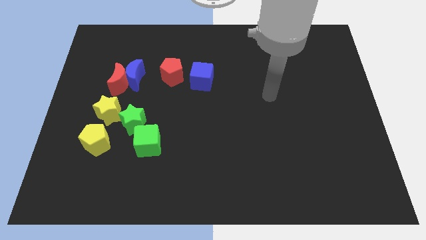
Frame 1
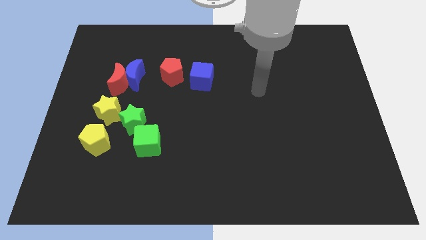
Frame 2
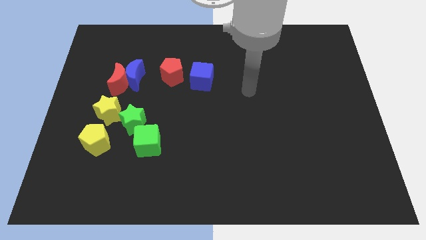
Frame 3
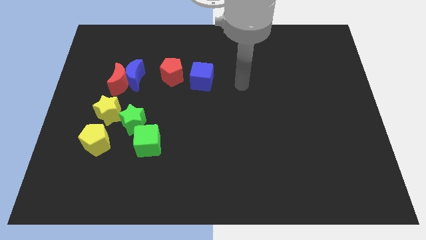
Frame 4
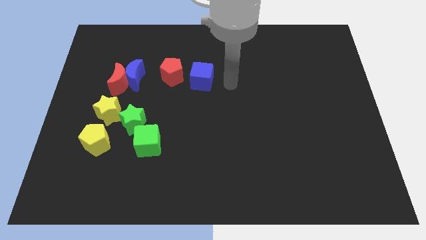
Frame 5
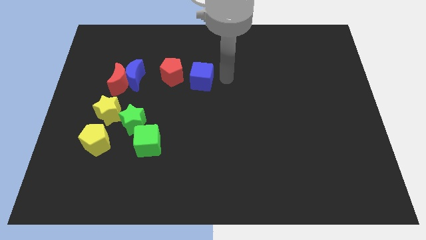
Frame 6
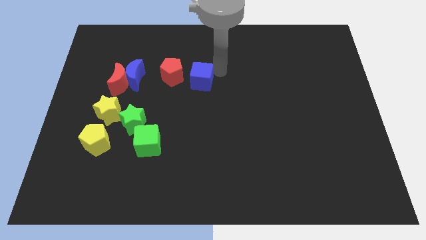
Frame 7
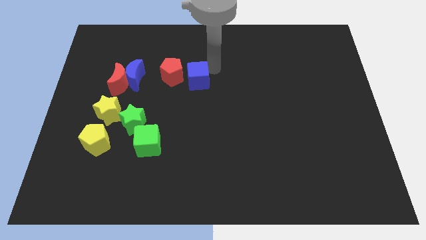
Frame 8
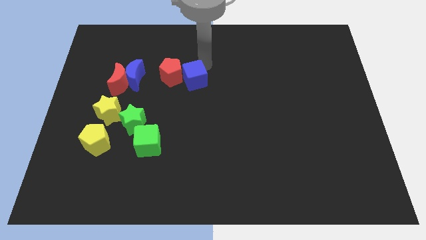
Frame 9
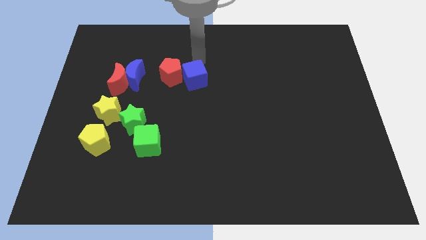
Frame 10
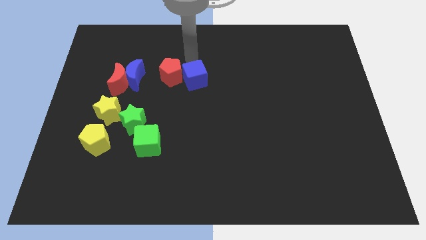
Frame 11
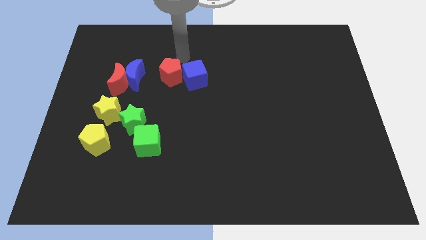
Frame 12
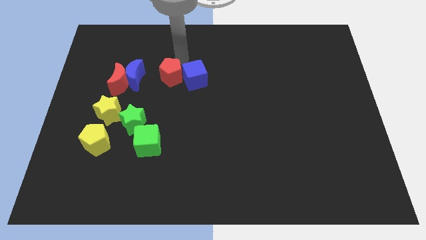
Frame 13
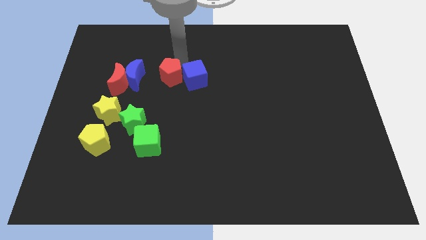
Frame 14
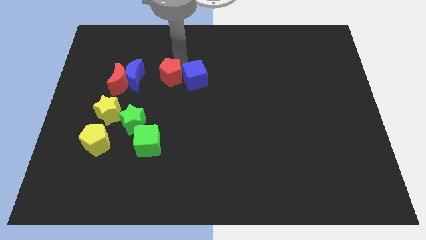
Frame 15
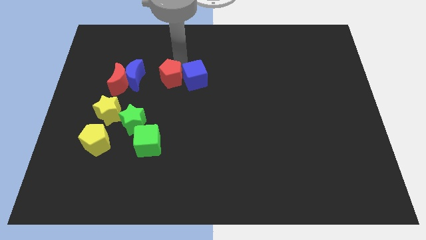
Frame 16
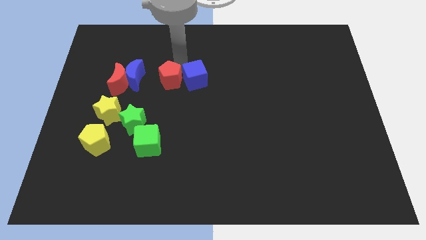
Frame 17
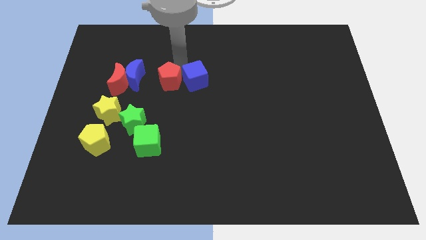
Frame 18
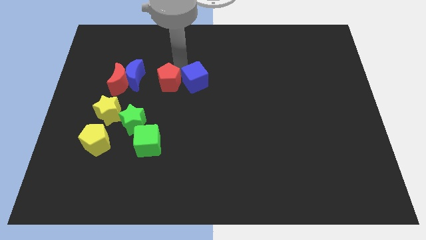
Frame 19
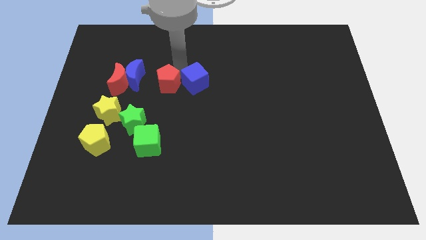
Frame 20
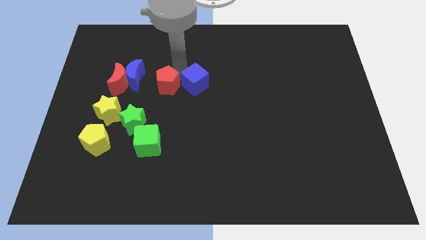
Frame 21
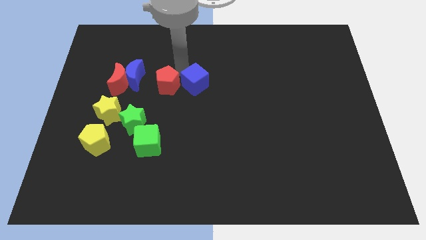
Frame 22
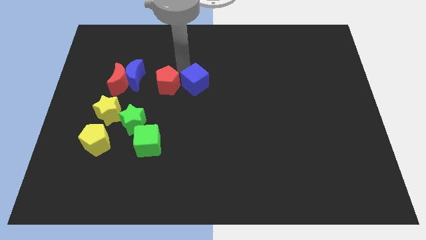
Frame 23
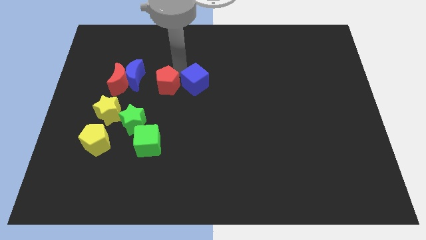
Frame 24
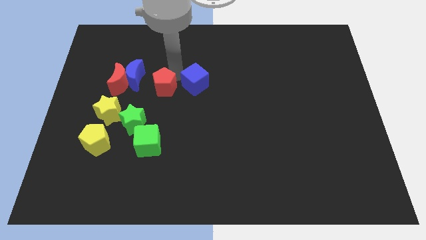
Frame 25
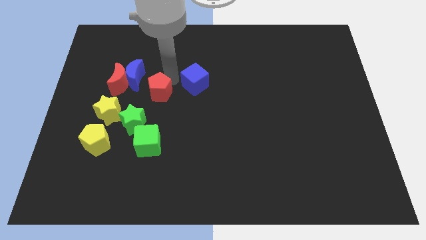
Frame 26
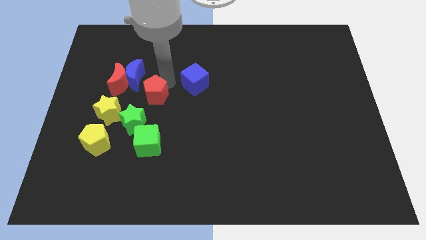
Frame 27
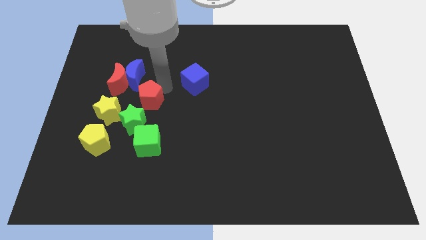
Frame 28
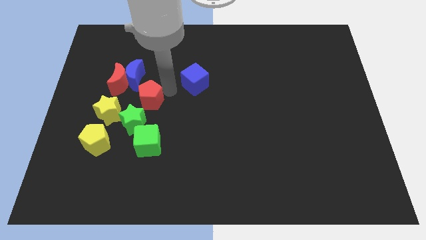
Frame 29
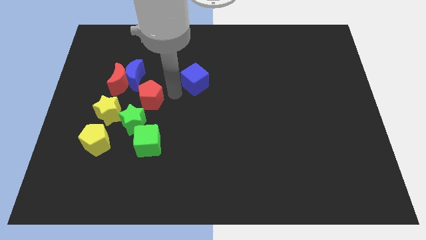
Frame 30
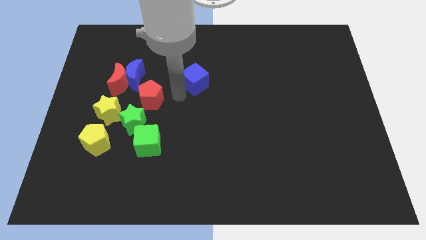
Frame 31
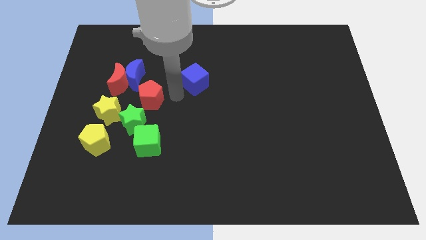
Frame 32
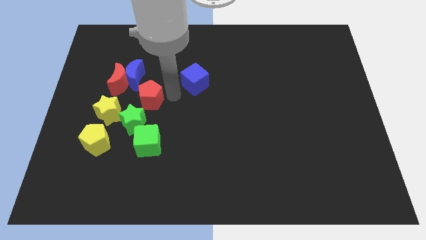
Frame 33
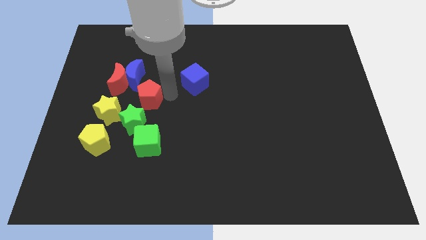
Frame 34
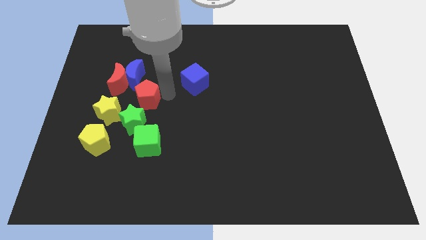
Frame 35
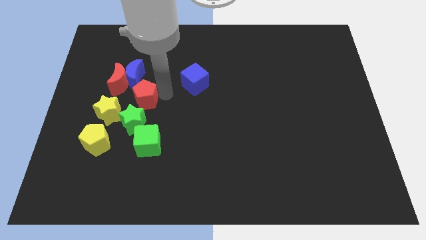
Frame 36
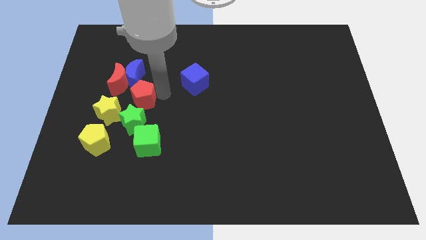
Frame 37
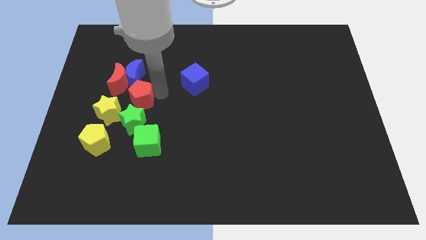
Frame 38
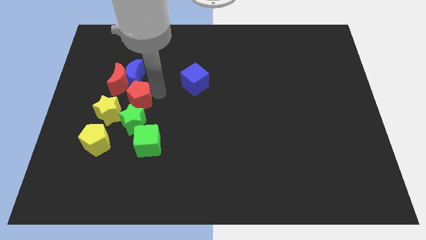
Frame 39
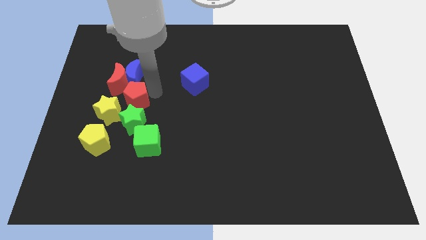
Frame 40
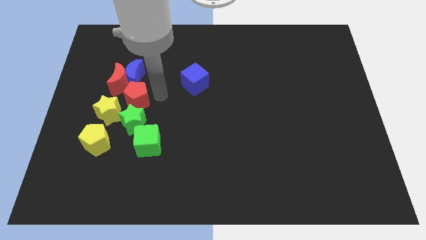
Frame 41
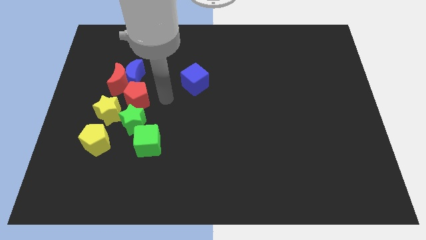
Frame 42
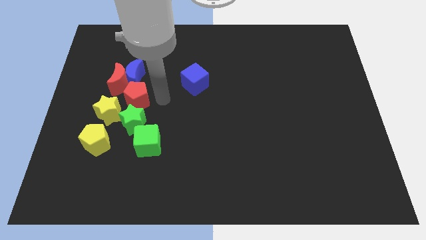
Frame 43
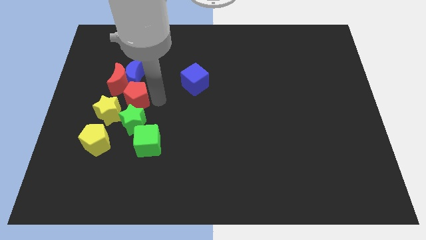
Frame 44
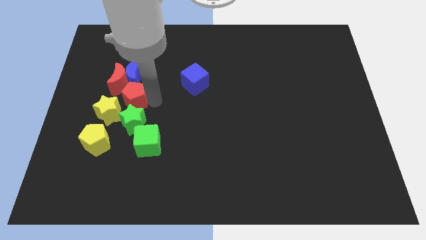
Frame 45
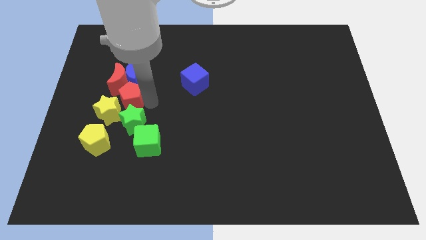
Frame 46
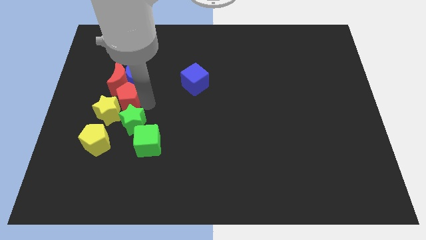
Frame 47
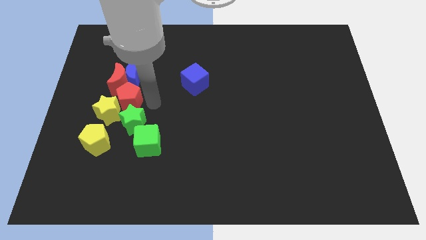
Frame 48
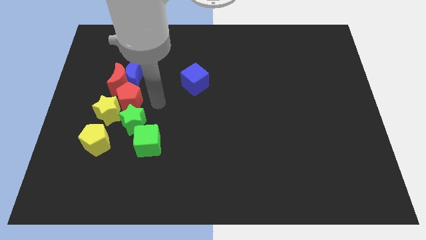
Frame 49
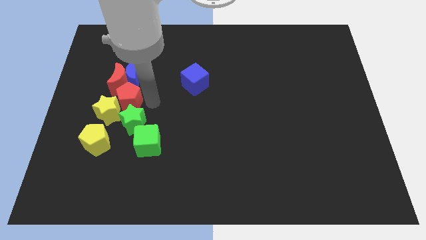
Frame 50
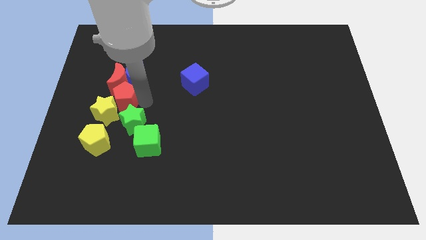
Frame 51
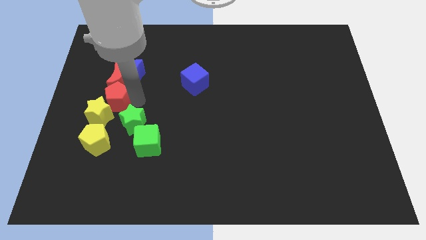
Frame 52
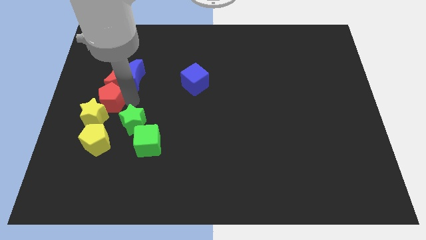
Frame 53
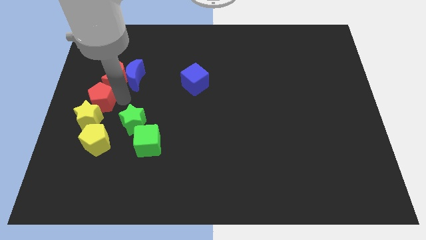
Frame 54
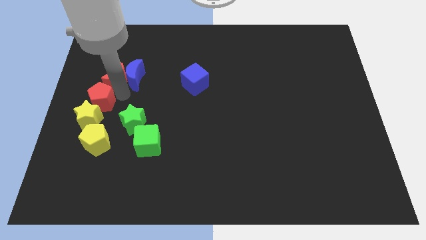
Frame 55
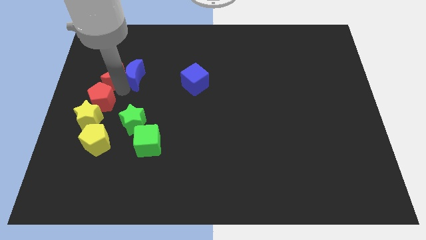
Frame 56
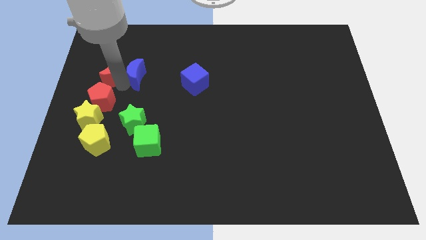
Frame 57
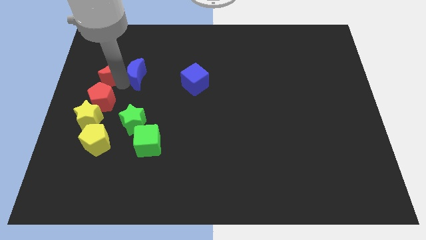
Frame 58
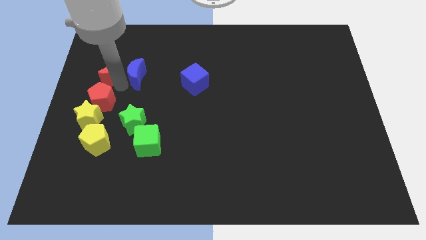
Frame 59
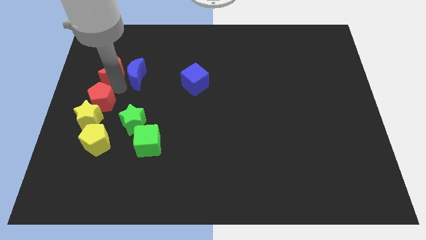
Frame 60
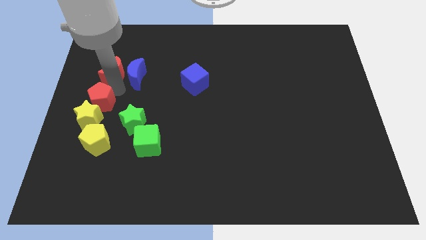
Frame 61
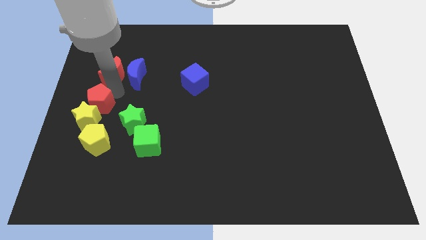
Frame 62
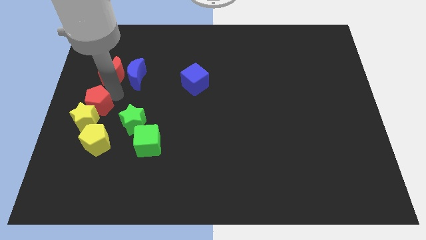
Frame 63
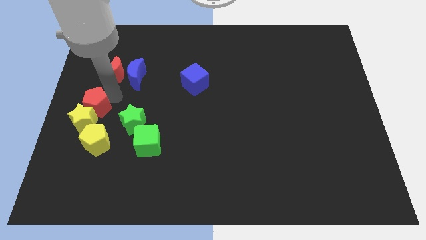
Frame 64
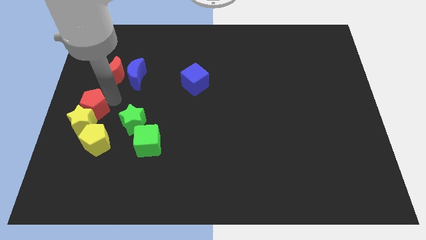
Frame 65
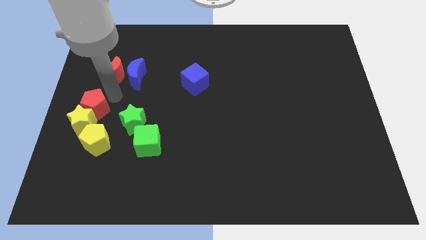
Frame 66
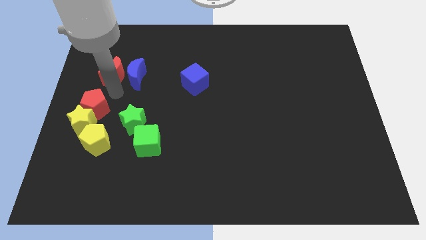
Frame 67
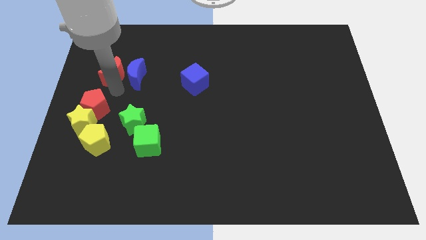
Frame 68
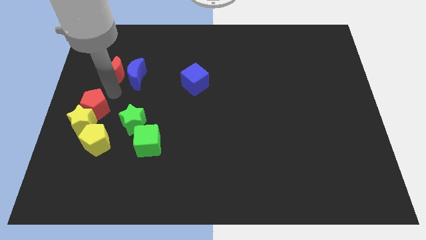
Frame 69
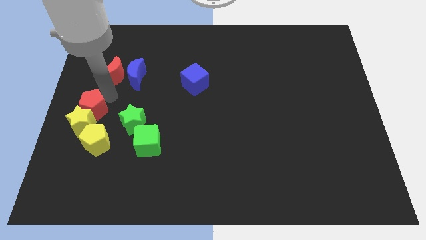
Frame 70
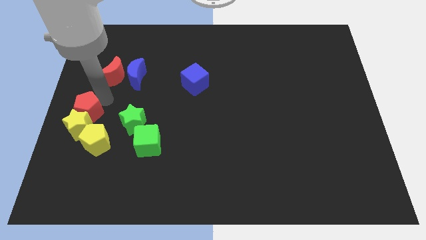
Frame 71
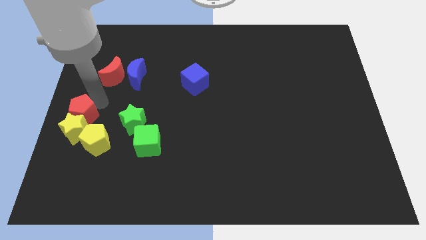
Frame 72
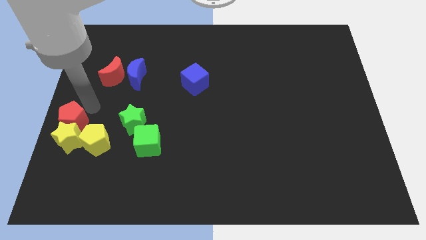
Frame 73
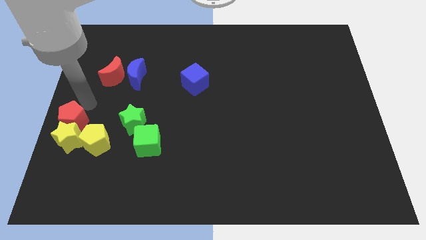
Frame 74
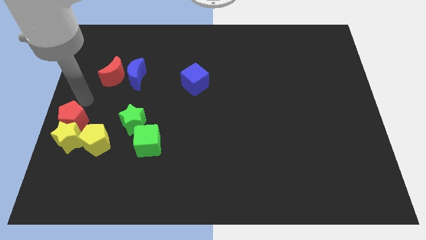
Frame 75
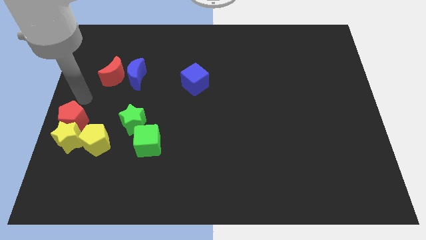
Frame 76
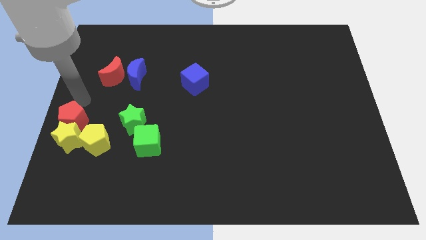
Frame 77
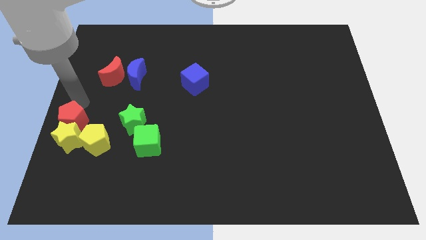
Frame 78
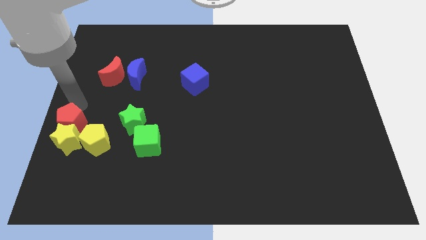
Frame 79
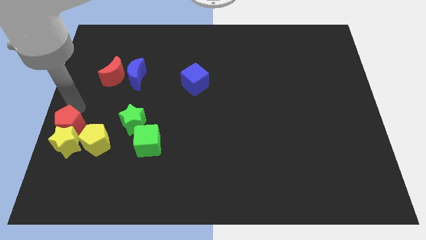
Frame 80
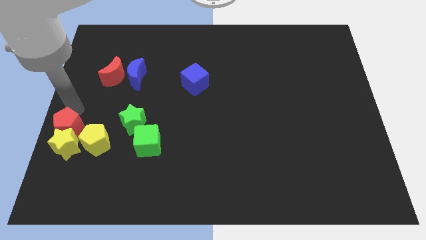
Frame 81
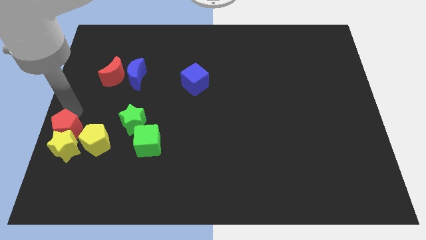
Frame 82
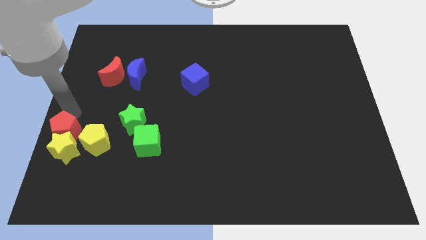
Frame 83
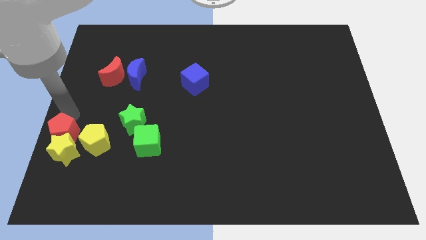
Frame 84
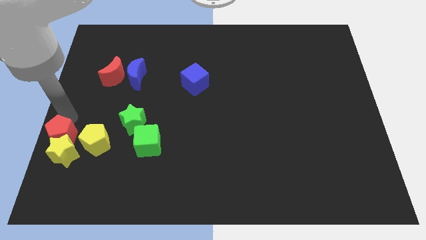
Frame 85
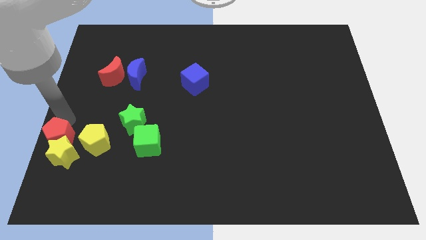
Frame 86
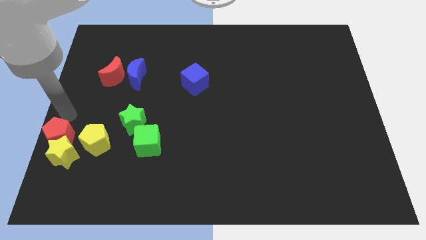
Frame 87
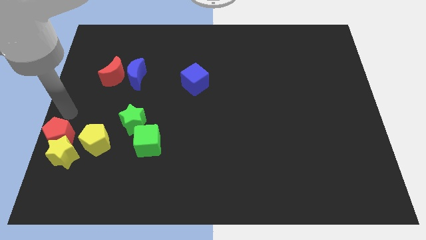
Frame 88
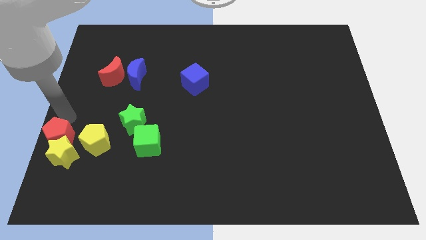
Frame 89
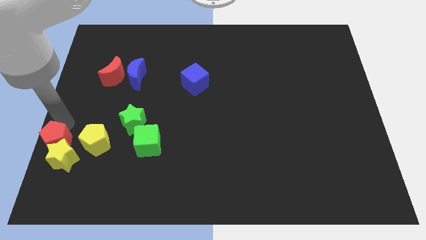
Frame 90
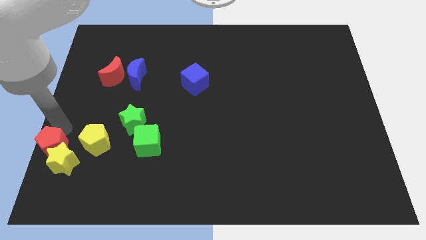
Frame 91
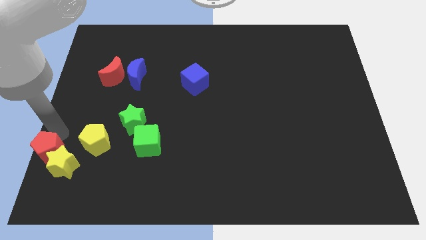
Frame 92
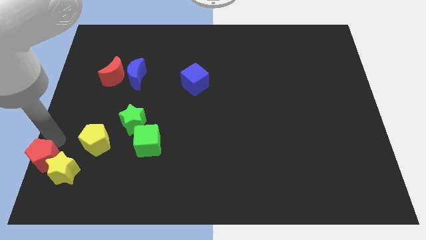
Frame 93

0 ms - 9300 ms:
push the red pentagon to the bottom left of the board
